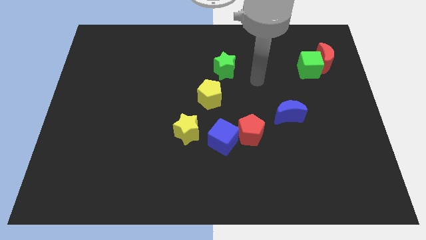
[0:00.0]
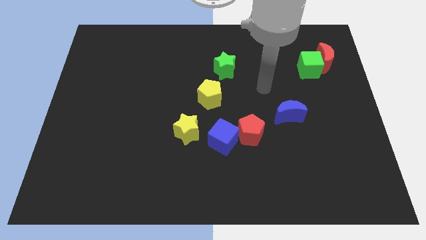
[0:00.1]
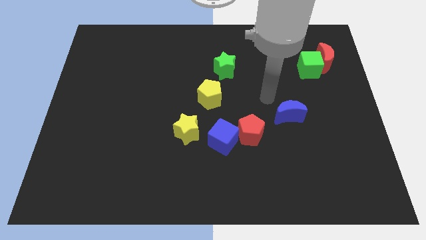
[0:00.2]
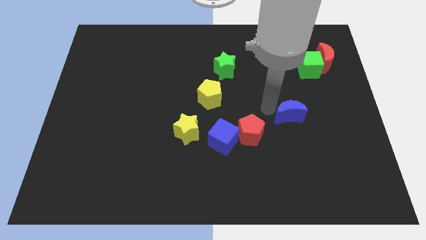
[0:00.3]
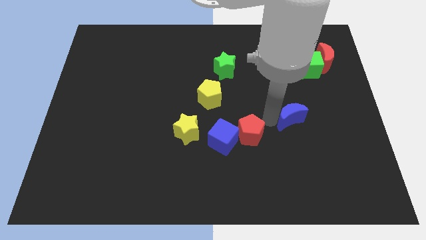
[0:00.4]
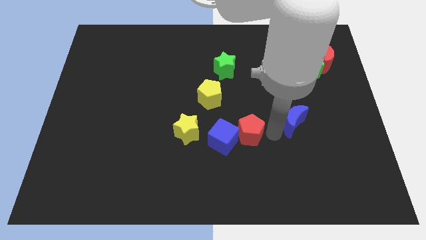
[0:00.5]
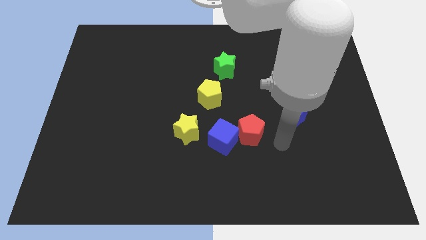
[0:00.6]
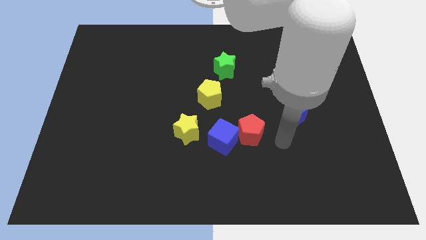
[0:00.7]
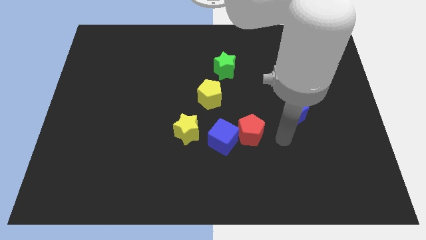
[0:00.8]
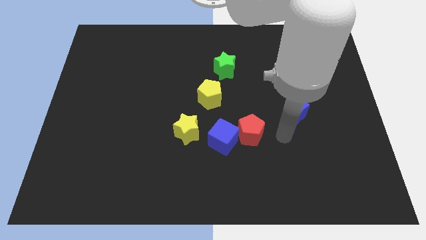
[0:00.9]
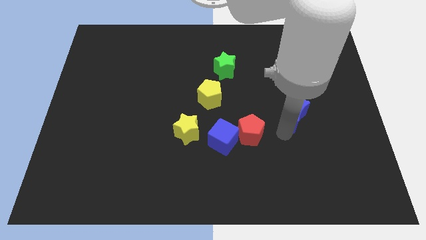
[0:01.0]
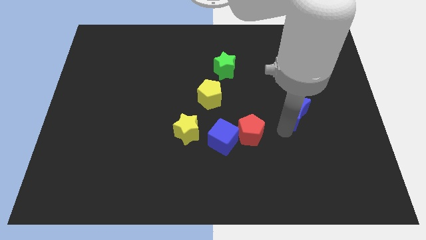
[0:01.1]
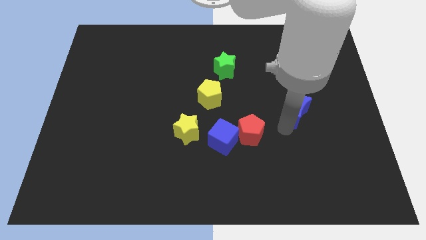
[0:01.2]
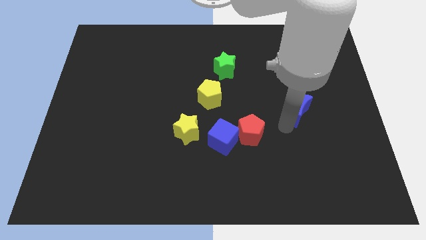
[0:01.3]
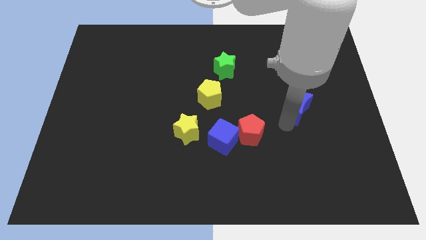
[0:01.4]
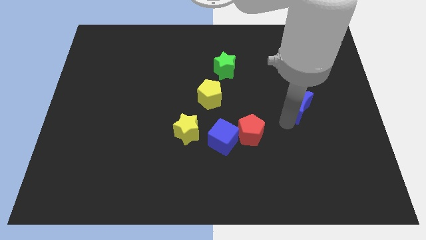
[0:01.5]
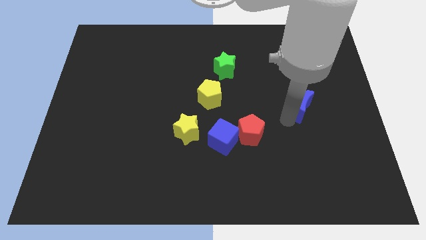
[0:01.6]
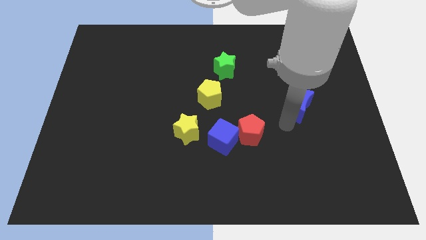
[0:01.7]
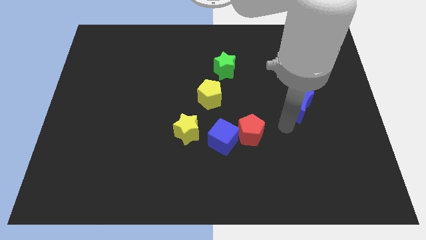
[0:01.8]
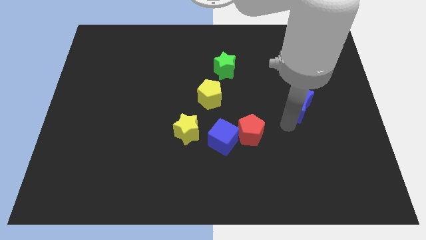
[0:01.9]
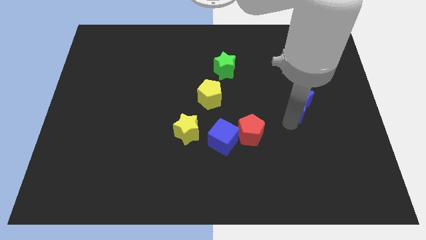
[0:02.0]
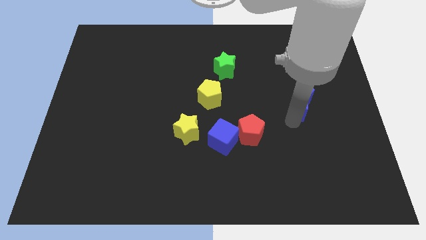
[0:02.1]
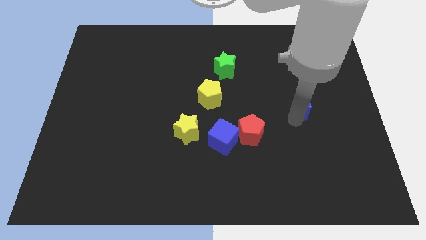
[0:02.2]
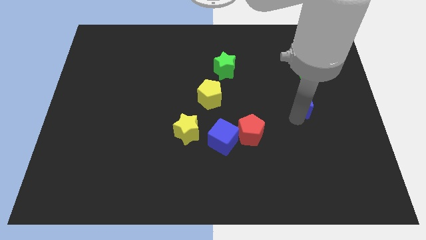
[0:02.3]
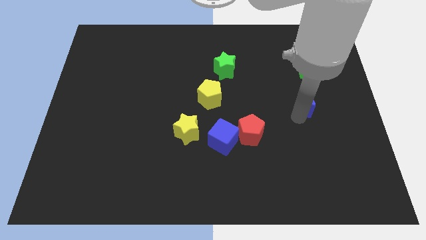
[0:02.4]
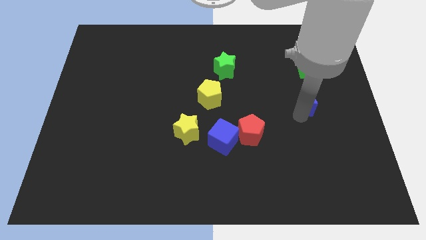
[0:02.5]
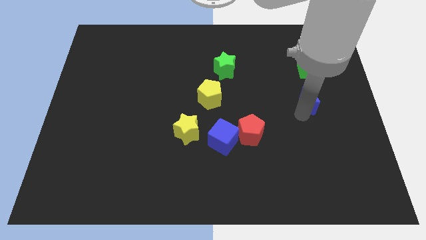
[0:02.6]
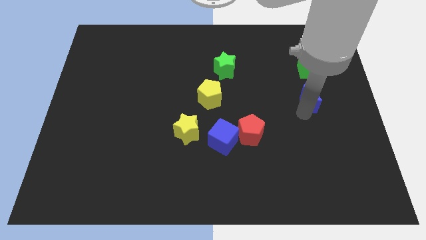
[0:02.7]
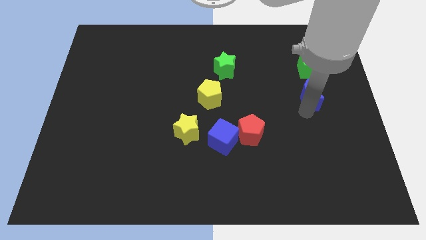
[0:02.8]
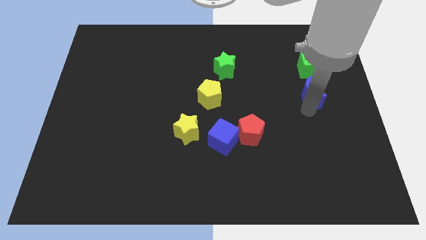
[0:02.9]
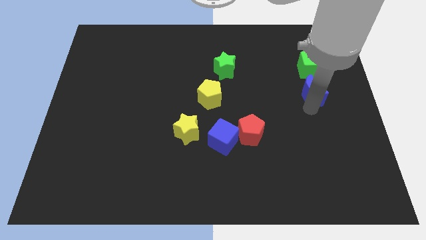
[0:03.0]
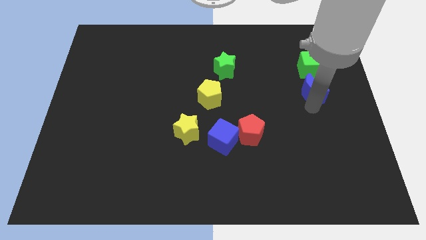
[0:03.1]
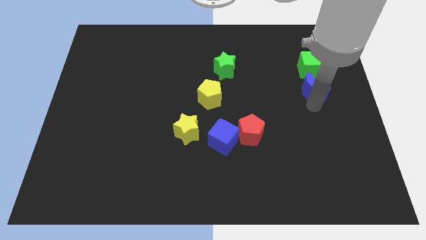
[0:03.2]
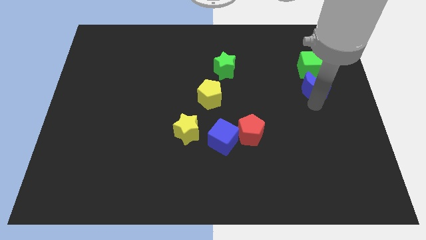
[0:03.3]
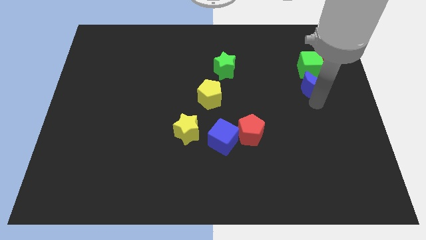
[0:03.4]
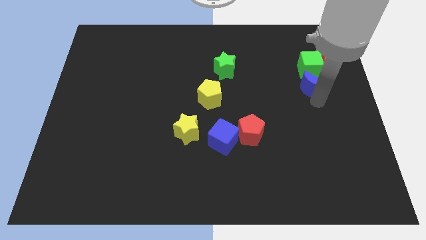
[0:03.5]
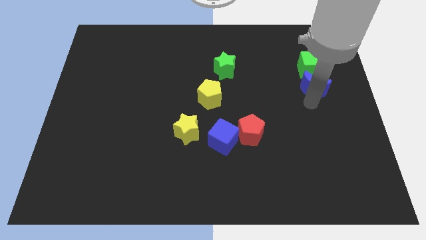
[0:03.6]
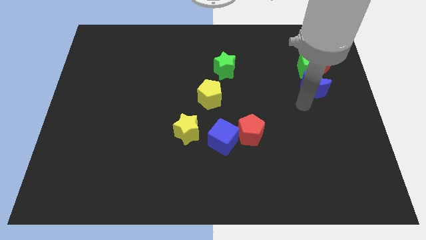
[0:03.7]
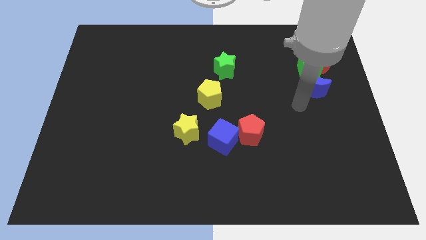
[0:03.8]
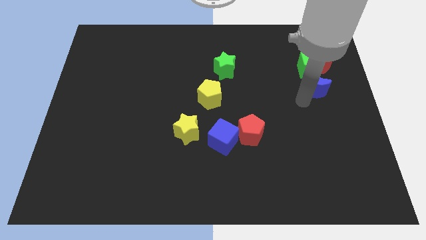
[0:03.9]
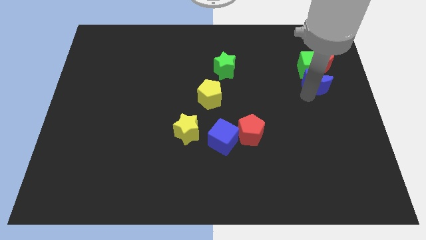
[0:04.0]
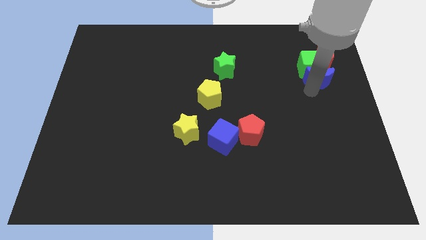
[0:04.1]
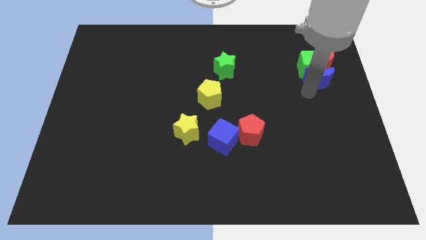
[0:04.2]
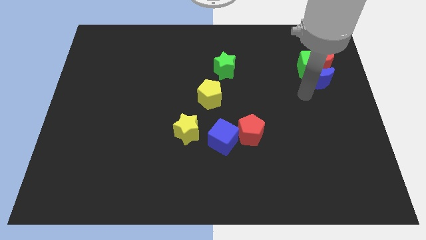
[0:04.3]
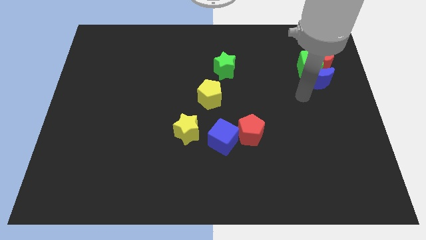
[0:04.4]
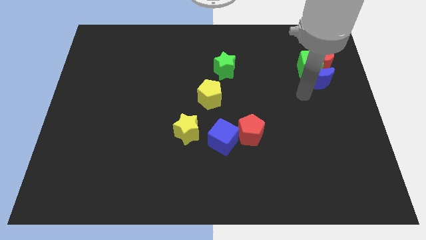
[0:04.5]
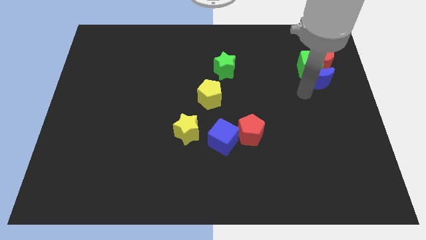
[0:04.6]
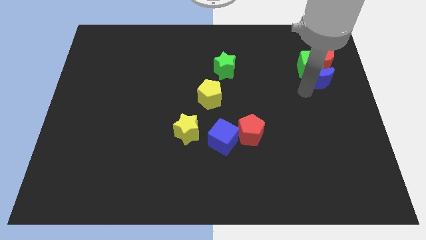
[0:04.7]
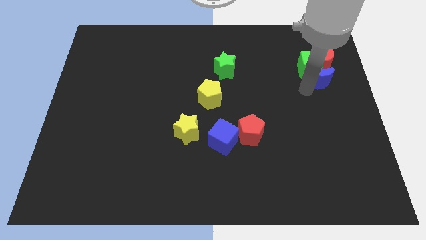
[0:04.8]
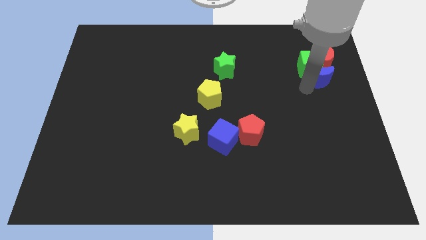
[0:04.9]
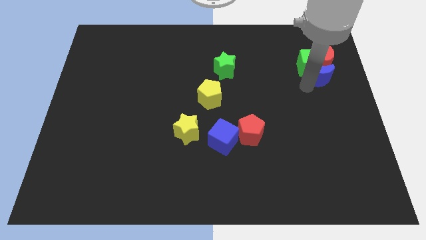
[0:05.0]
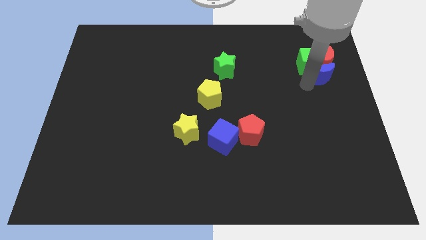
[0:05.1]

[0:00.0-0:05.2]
push the blue moon towards the red moon

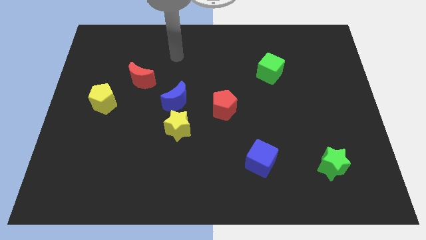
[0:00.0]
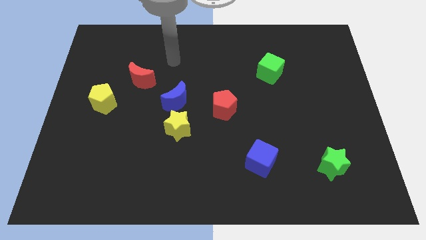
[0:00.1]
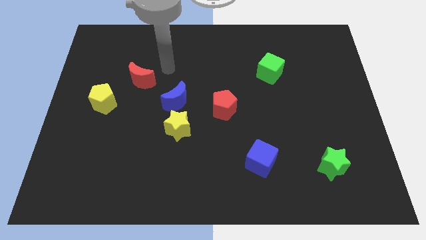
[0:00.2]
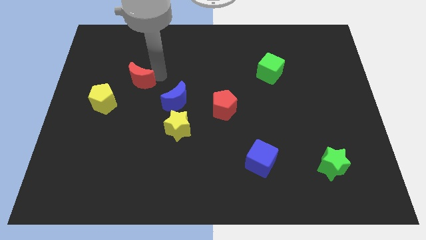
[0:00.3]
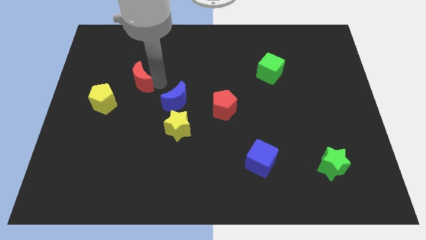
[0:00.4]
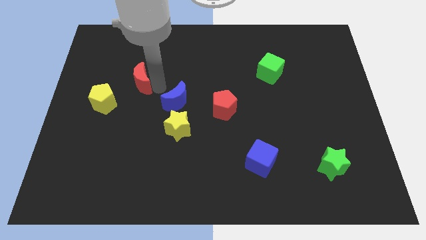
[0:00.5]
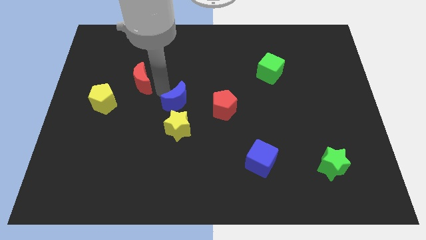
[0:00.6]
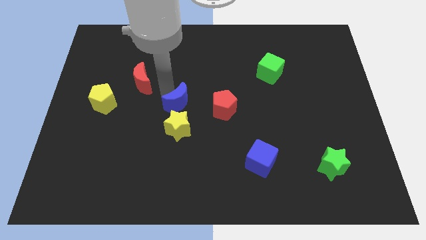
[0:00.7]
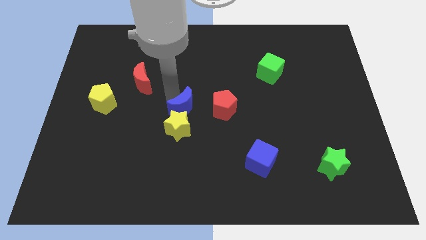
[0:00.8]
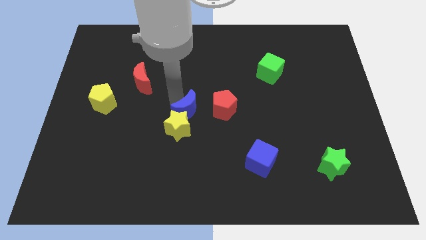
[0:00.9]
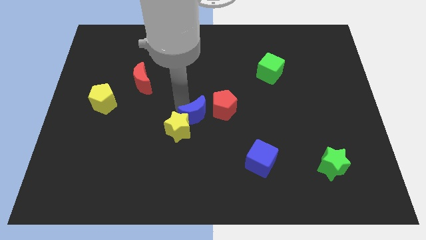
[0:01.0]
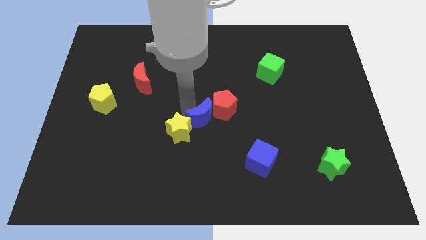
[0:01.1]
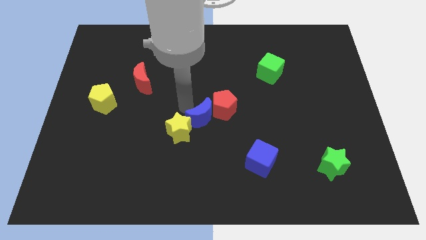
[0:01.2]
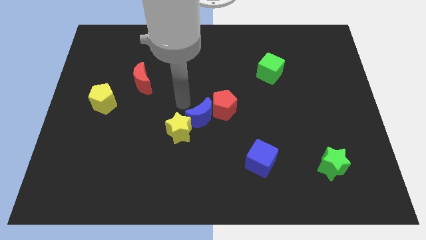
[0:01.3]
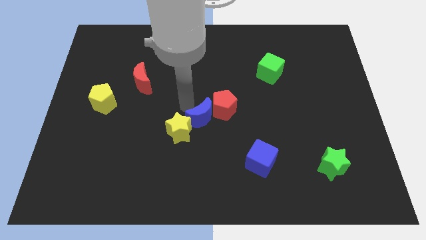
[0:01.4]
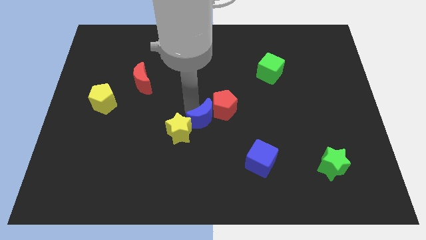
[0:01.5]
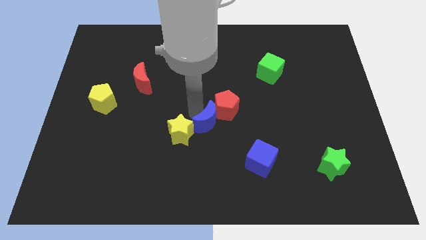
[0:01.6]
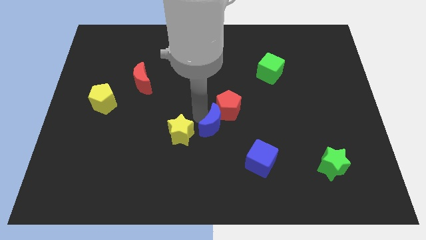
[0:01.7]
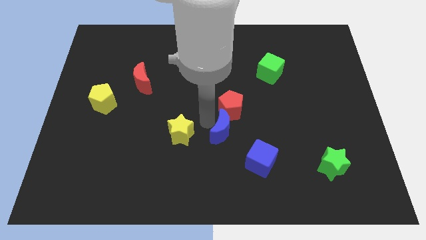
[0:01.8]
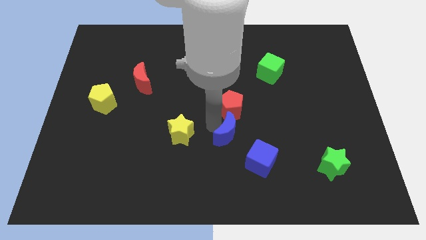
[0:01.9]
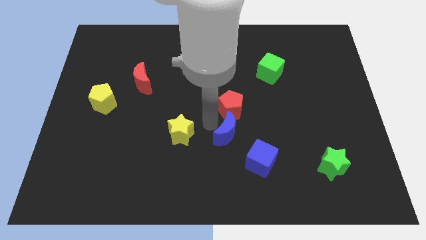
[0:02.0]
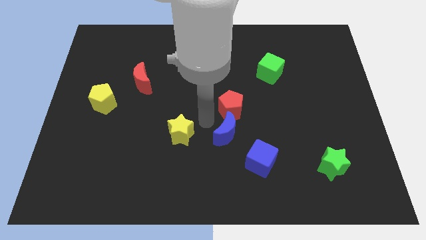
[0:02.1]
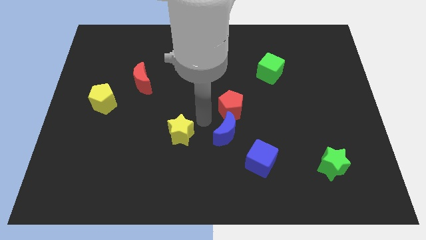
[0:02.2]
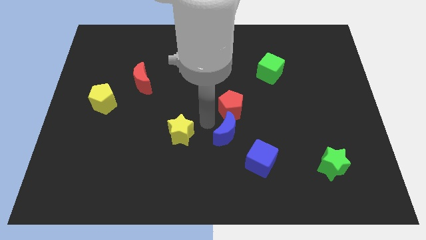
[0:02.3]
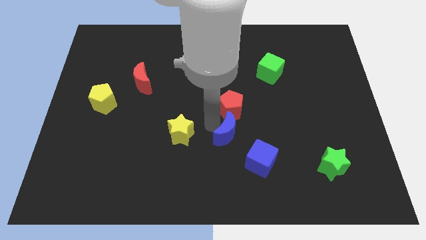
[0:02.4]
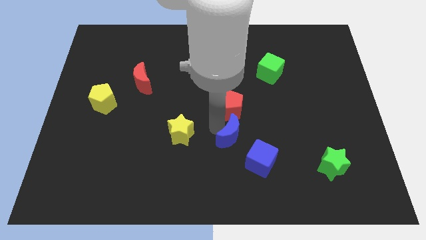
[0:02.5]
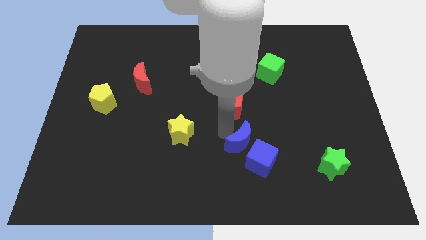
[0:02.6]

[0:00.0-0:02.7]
push the blue moon to the blue cube
